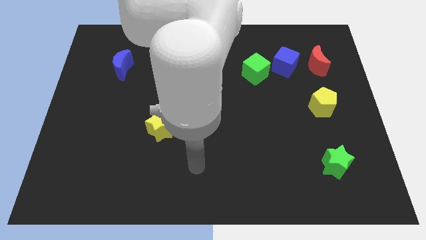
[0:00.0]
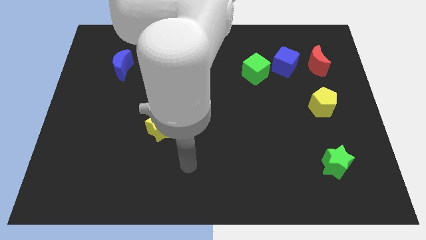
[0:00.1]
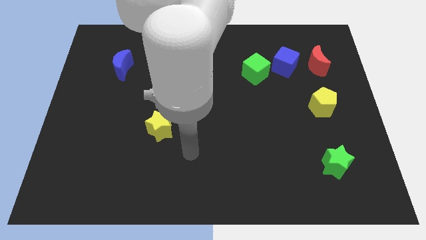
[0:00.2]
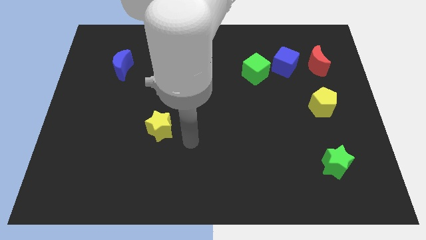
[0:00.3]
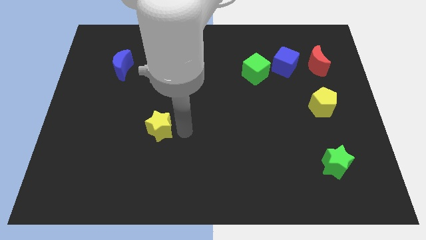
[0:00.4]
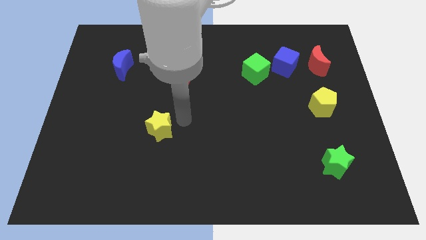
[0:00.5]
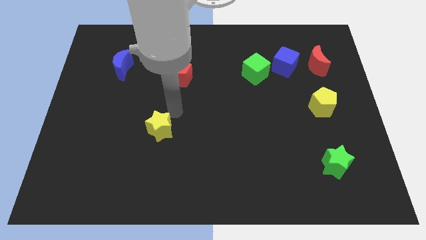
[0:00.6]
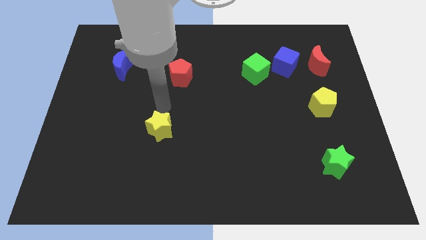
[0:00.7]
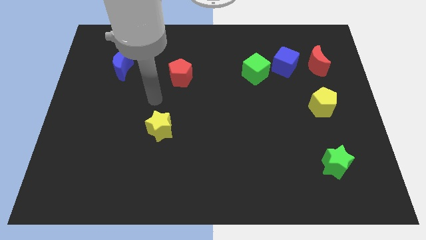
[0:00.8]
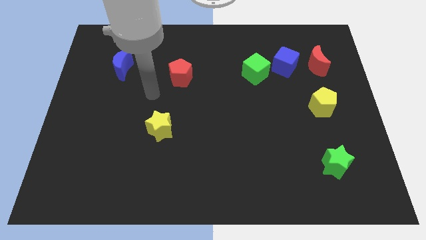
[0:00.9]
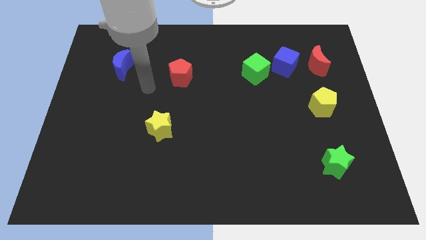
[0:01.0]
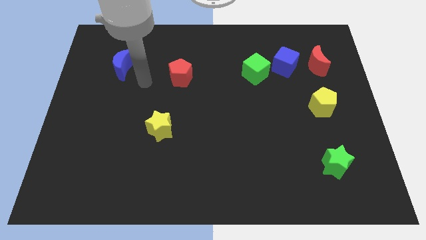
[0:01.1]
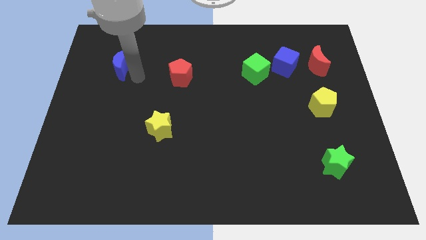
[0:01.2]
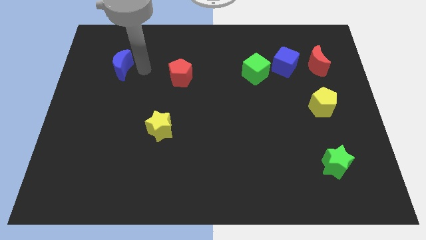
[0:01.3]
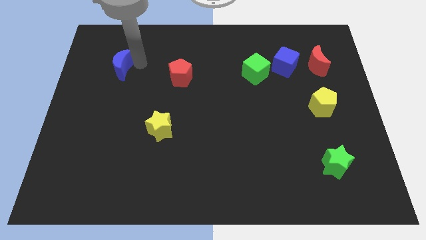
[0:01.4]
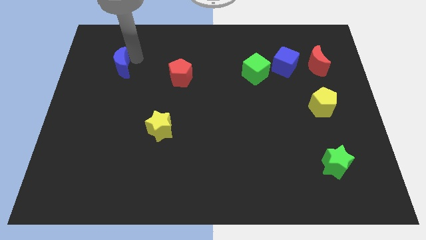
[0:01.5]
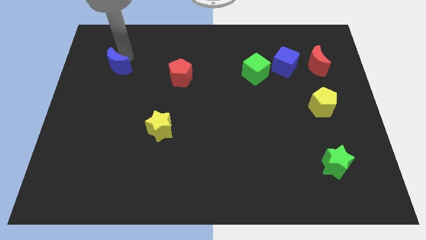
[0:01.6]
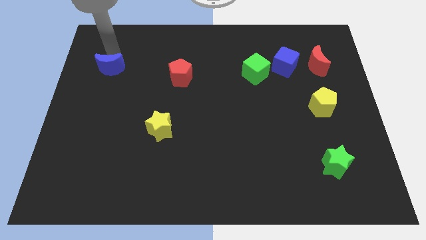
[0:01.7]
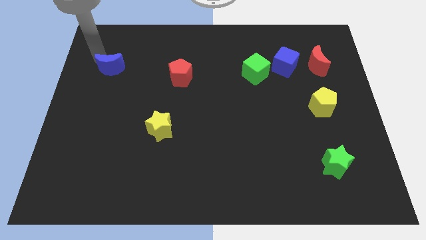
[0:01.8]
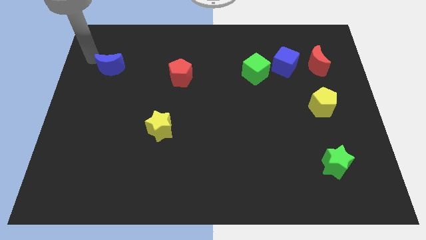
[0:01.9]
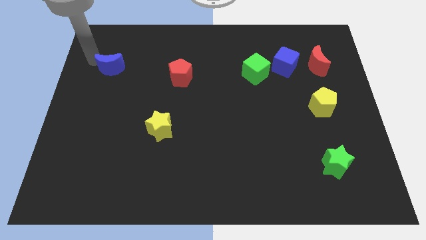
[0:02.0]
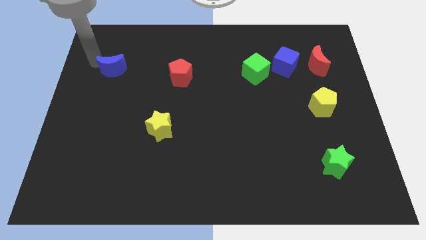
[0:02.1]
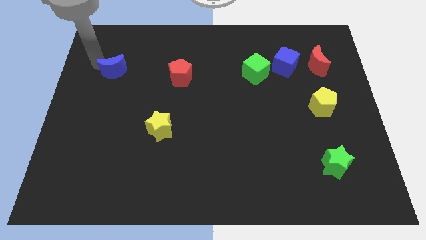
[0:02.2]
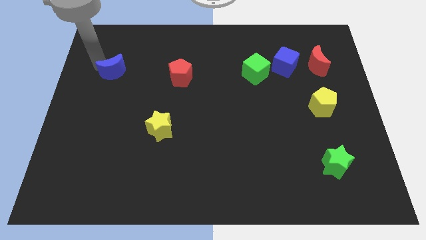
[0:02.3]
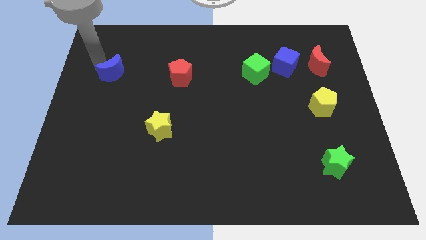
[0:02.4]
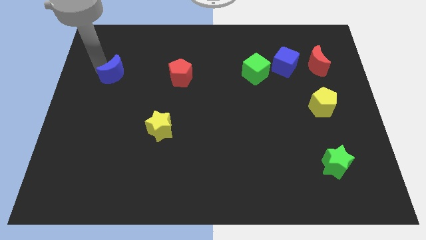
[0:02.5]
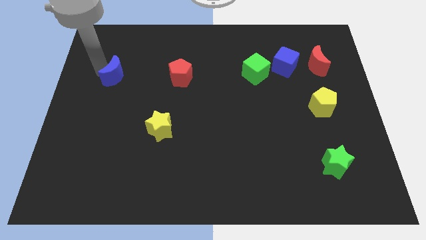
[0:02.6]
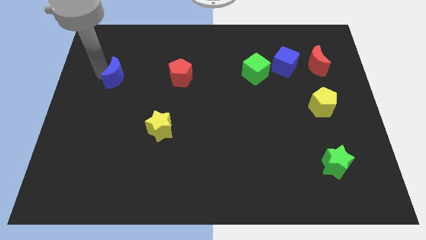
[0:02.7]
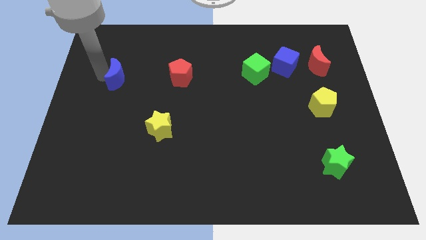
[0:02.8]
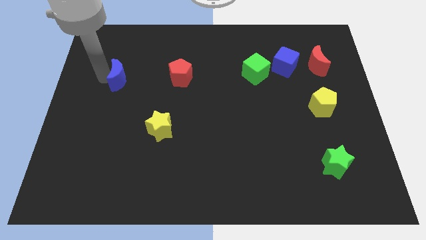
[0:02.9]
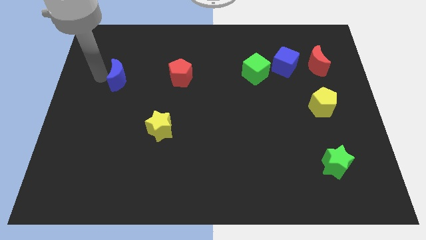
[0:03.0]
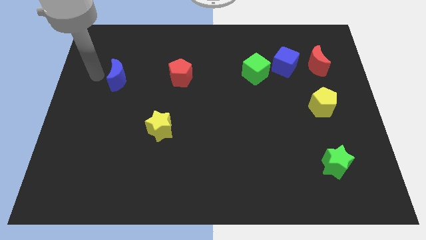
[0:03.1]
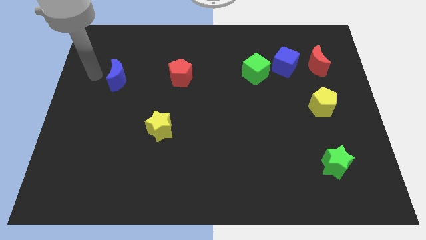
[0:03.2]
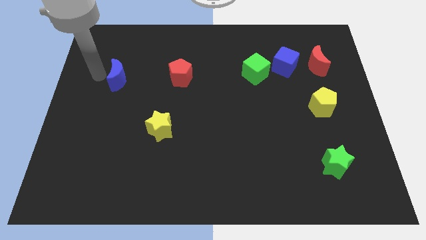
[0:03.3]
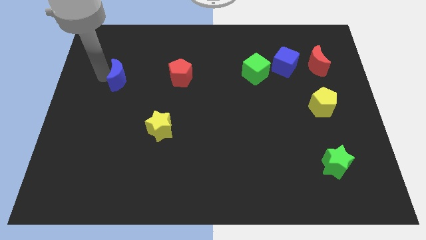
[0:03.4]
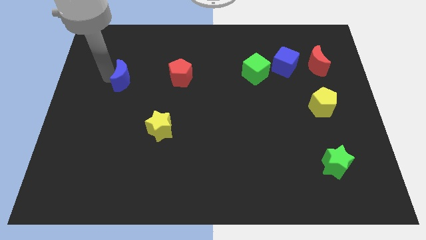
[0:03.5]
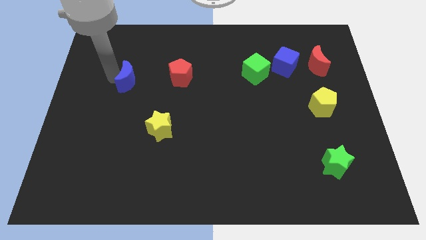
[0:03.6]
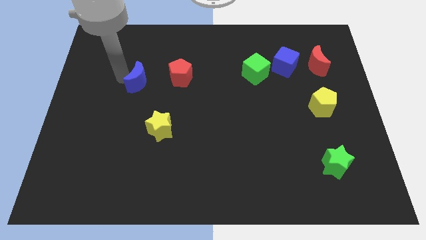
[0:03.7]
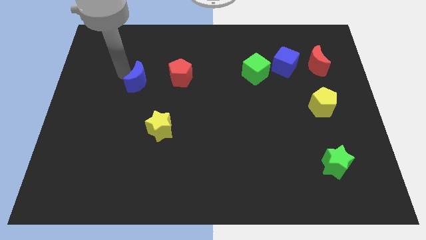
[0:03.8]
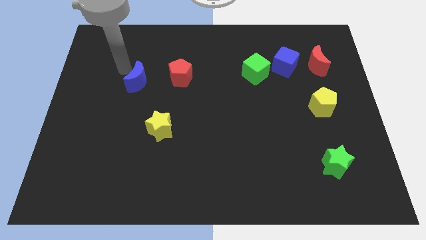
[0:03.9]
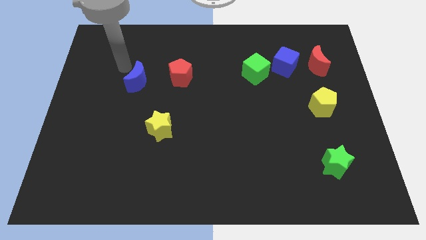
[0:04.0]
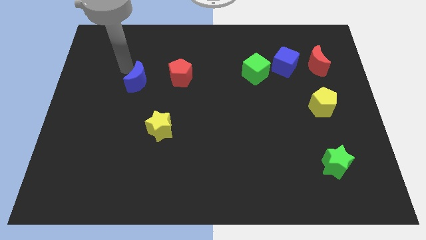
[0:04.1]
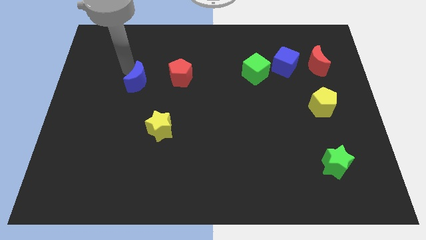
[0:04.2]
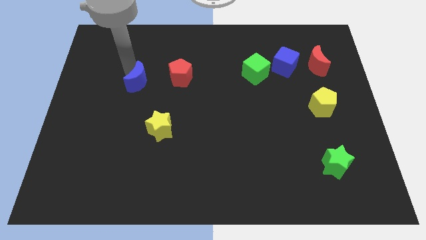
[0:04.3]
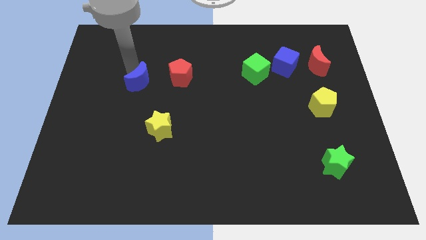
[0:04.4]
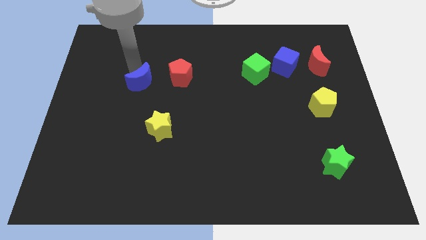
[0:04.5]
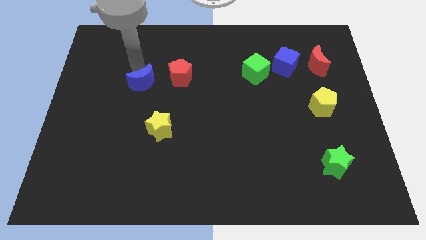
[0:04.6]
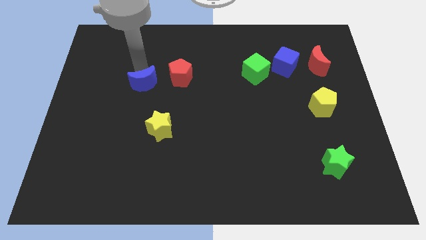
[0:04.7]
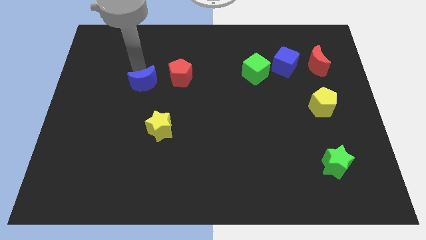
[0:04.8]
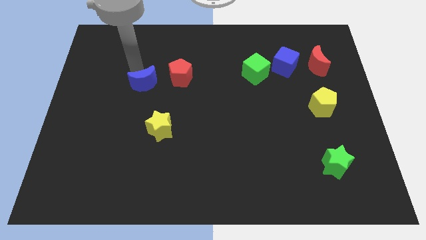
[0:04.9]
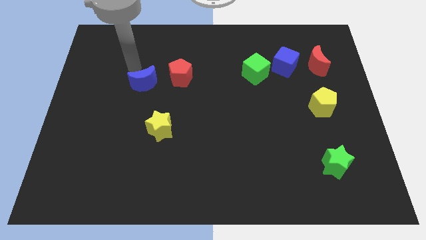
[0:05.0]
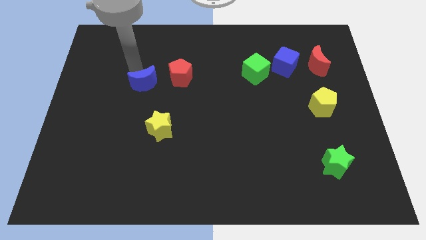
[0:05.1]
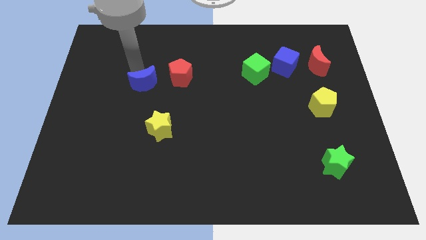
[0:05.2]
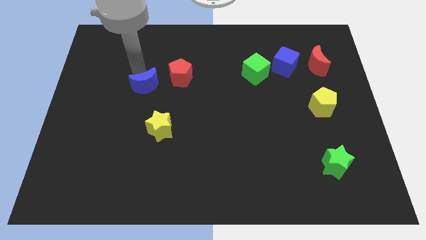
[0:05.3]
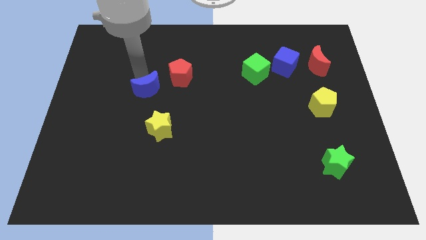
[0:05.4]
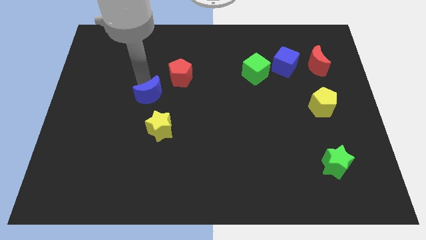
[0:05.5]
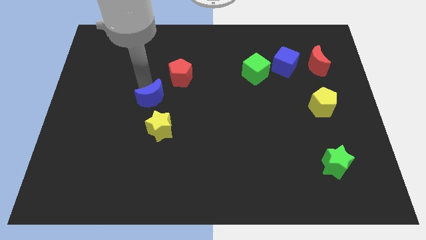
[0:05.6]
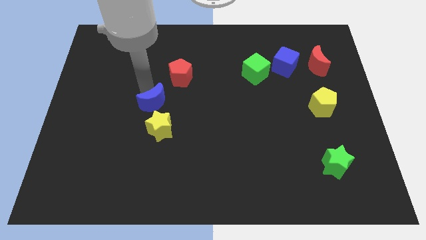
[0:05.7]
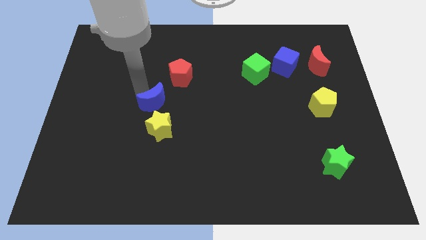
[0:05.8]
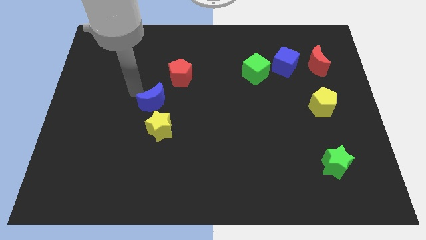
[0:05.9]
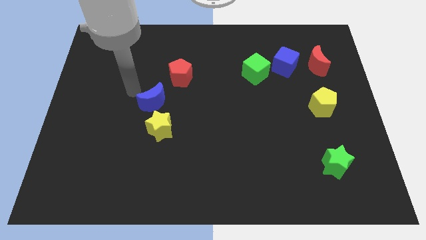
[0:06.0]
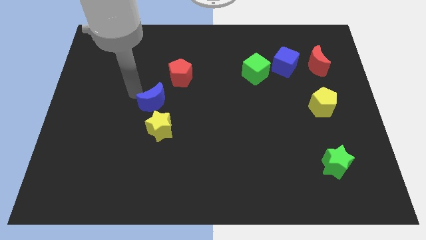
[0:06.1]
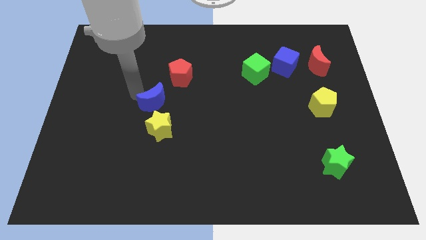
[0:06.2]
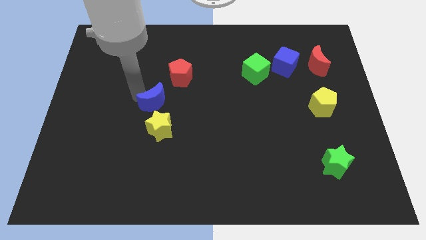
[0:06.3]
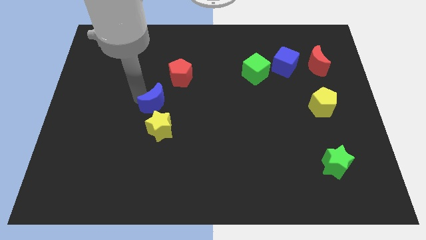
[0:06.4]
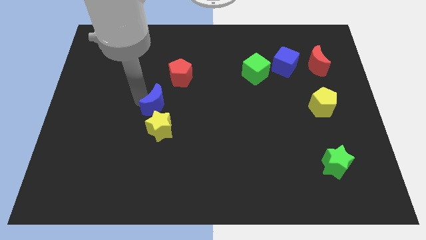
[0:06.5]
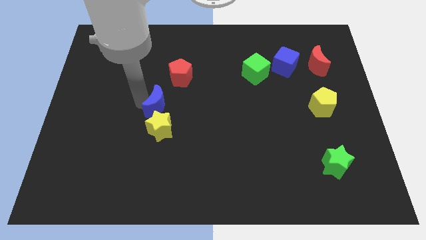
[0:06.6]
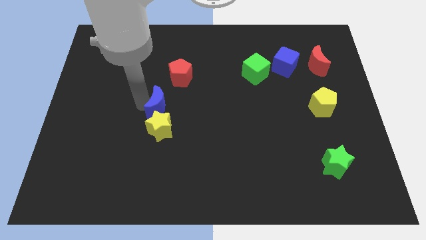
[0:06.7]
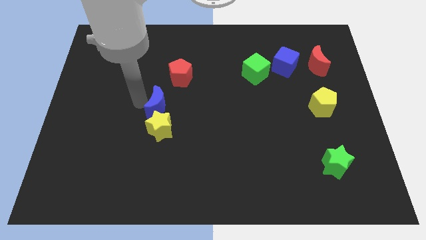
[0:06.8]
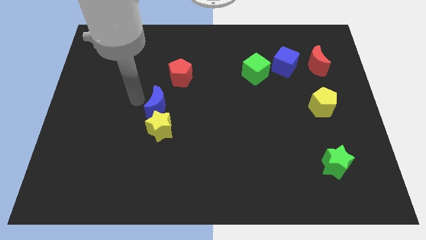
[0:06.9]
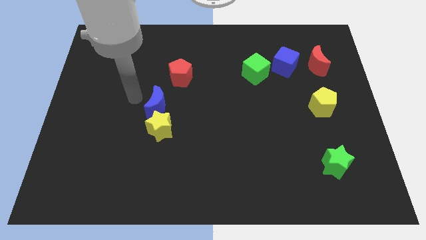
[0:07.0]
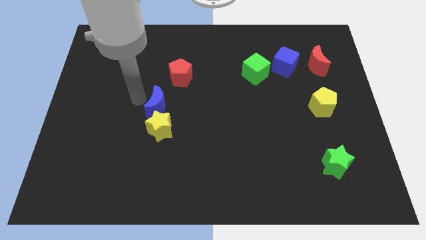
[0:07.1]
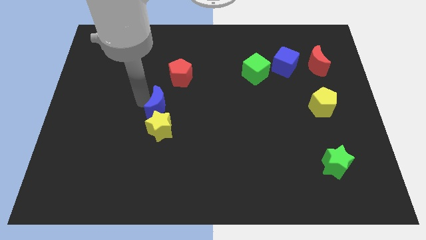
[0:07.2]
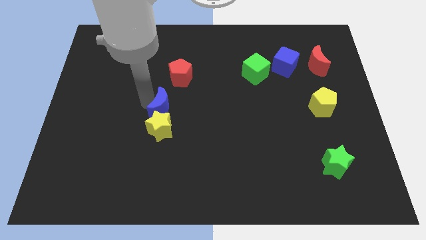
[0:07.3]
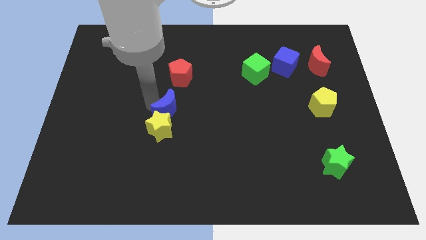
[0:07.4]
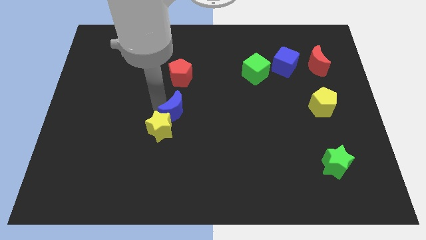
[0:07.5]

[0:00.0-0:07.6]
push the blue moon downwards and then right

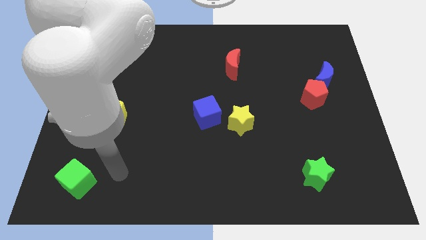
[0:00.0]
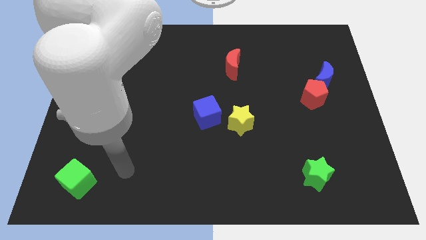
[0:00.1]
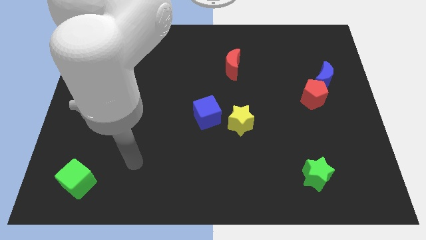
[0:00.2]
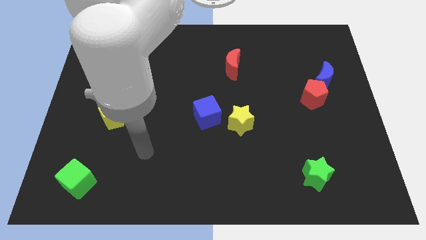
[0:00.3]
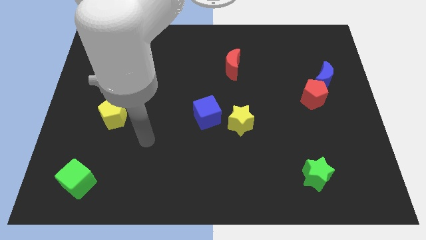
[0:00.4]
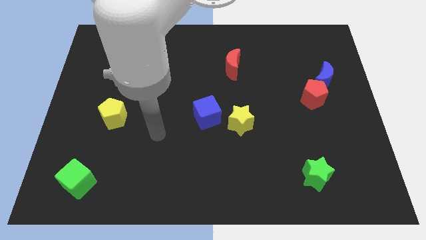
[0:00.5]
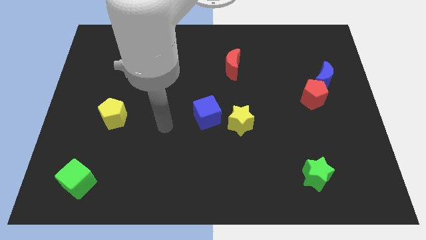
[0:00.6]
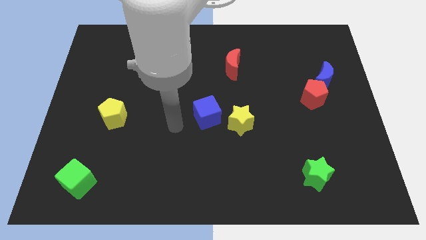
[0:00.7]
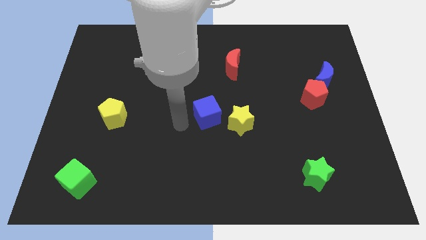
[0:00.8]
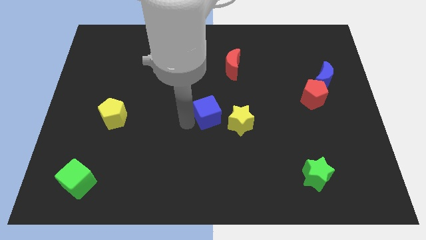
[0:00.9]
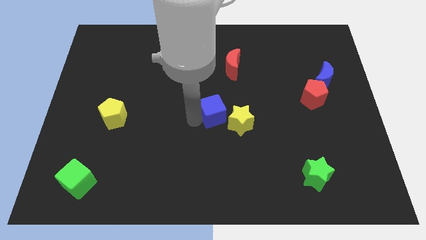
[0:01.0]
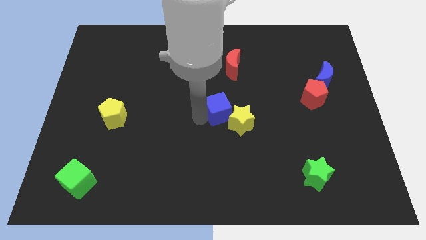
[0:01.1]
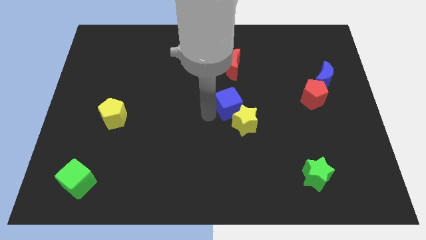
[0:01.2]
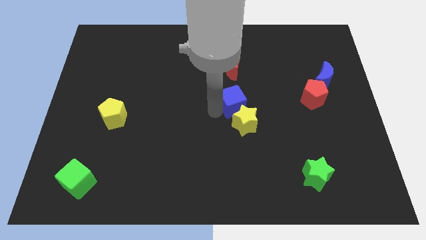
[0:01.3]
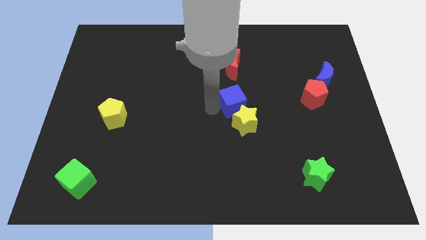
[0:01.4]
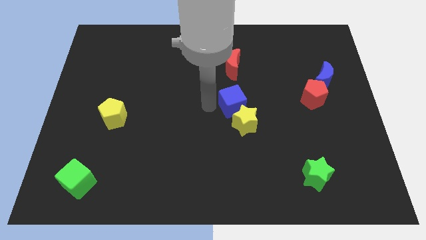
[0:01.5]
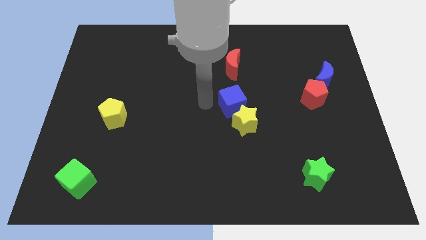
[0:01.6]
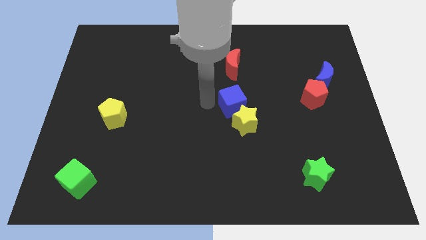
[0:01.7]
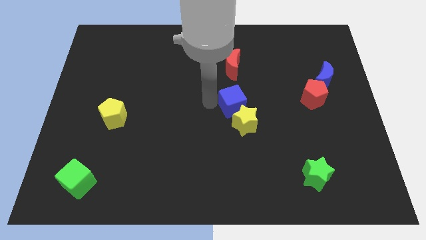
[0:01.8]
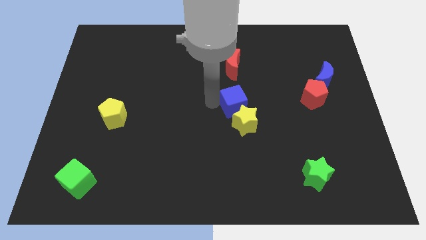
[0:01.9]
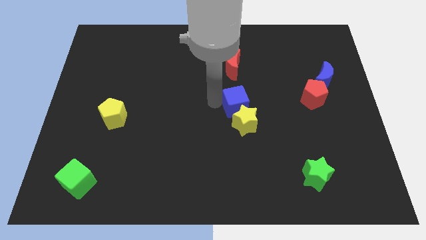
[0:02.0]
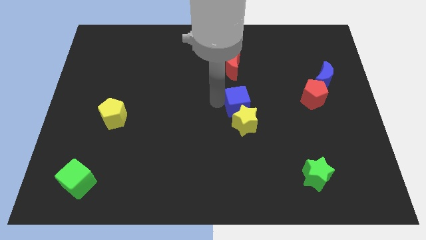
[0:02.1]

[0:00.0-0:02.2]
move the blue cube somewhat to the right
